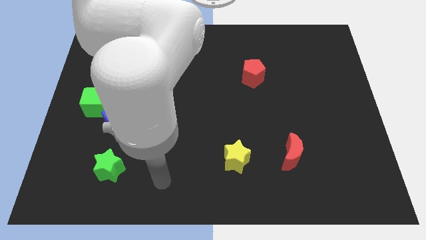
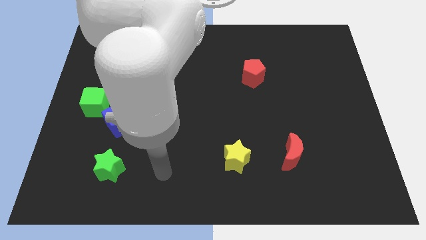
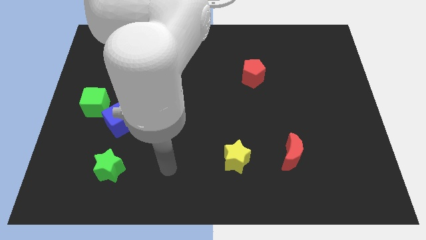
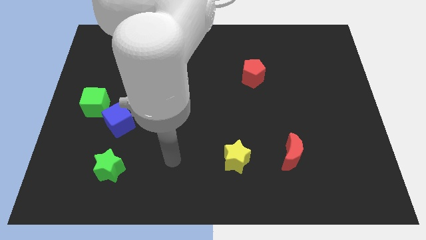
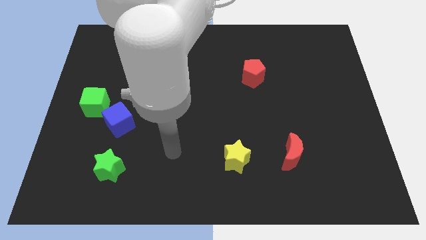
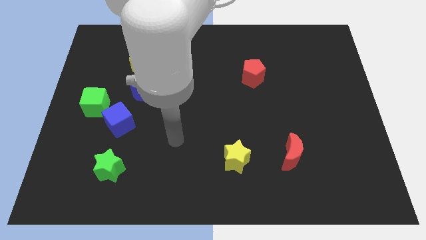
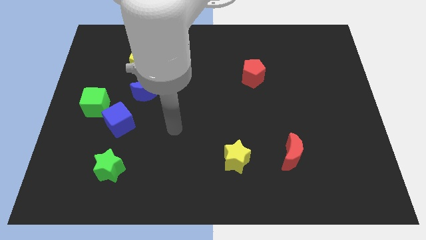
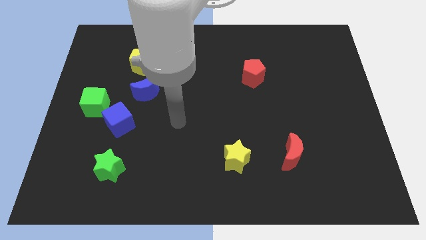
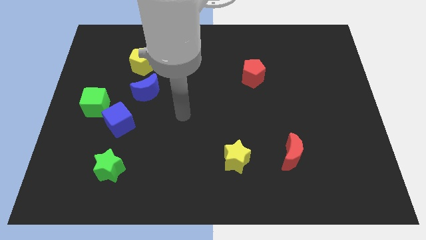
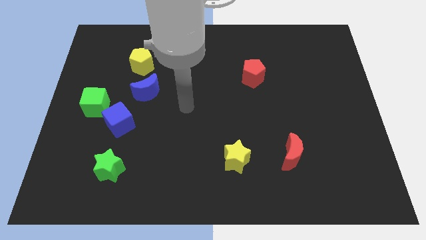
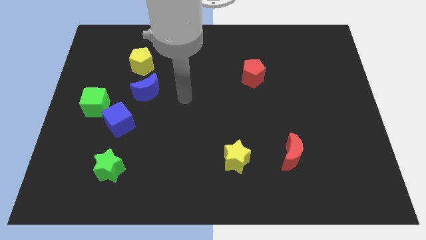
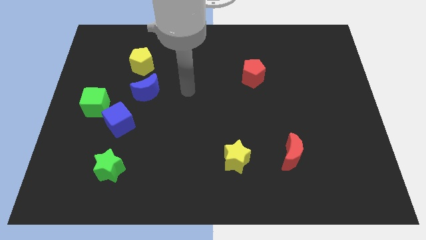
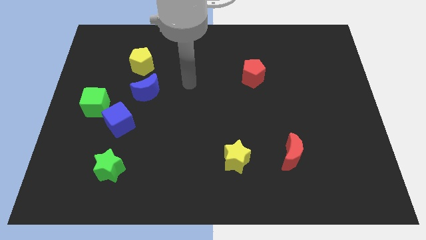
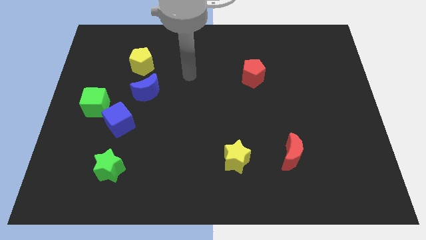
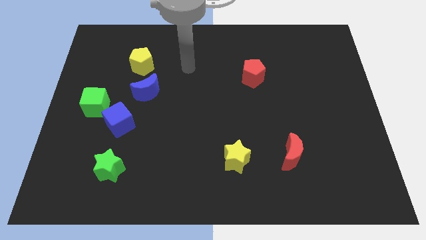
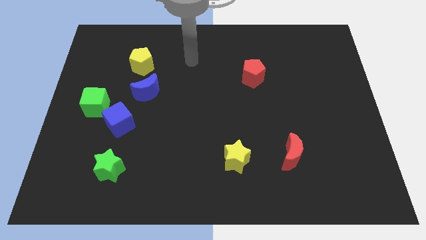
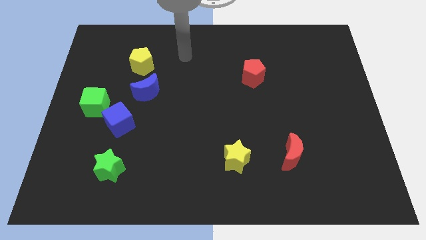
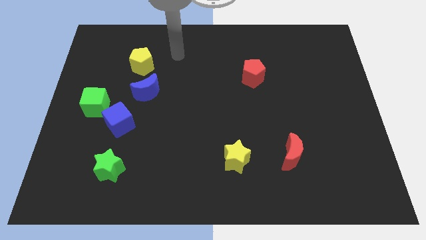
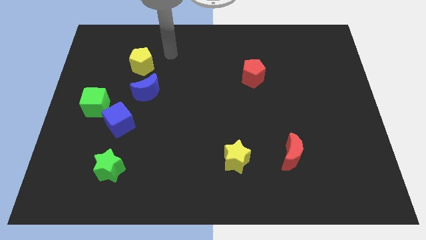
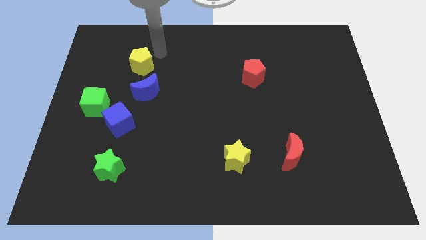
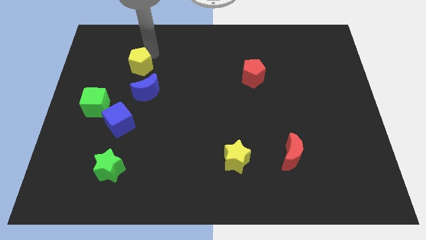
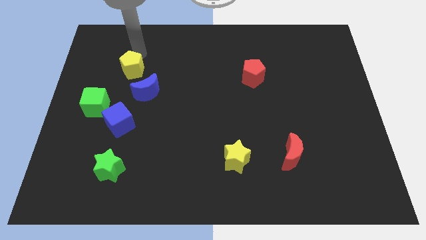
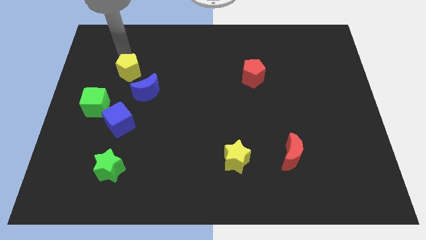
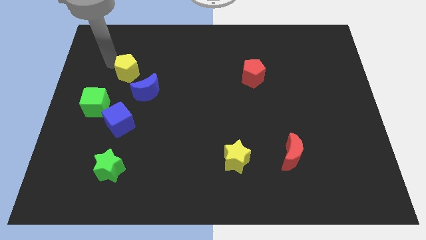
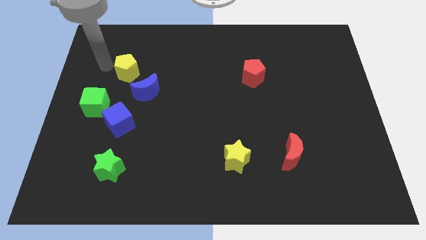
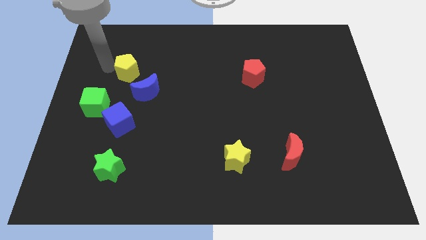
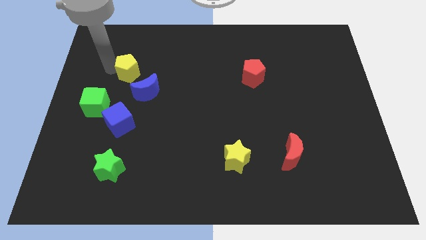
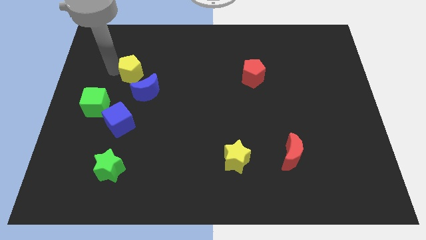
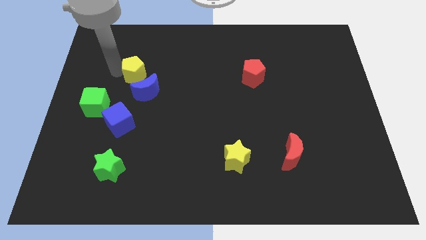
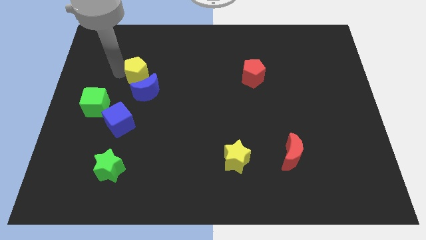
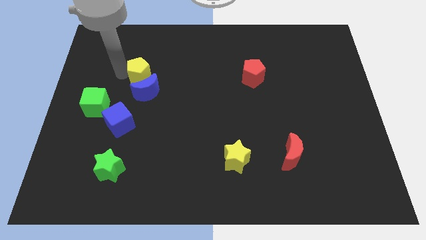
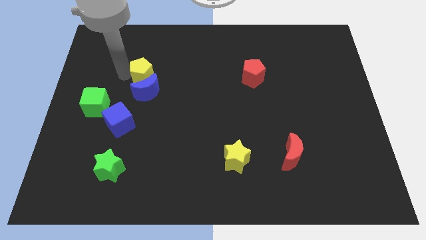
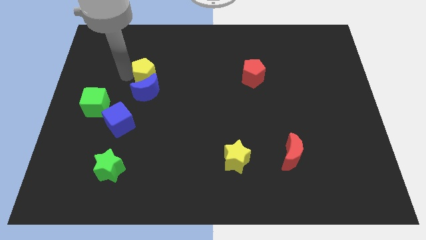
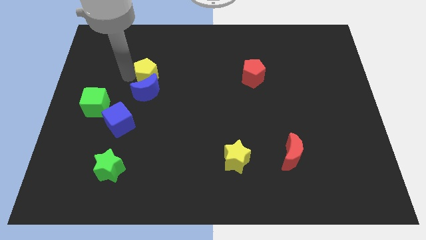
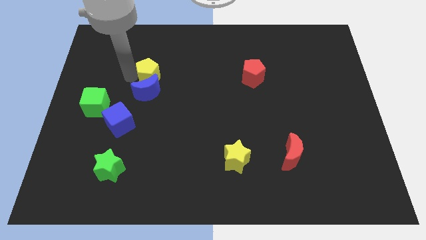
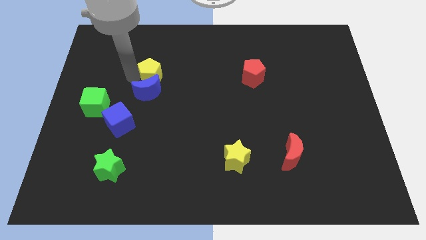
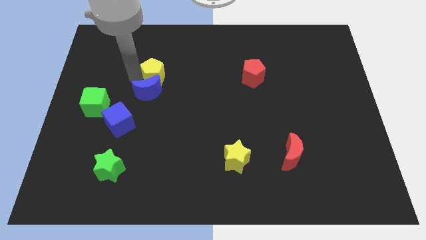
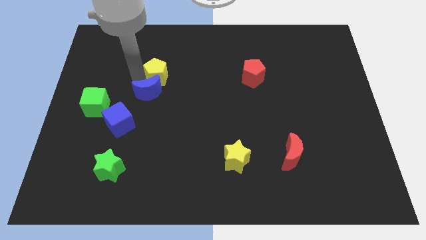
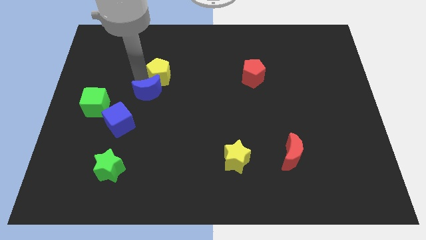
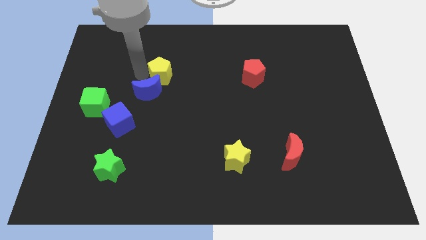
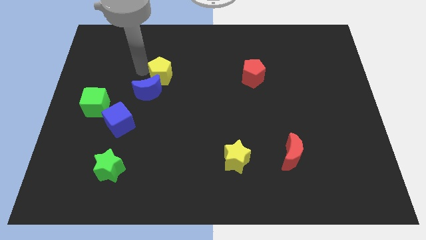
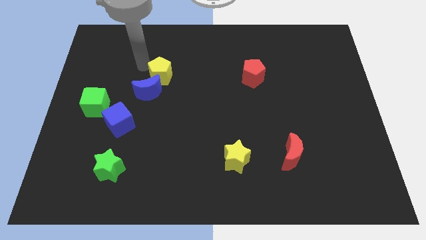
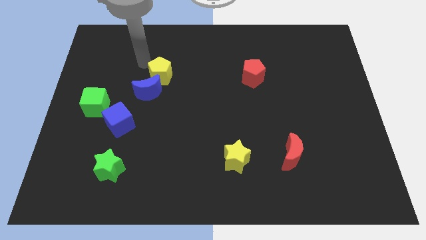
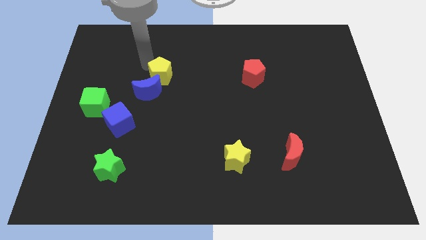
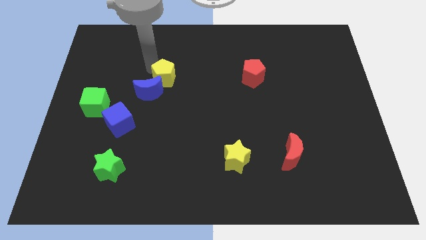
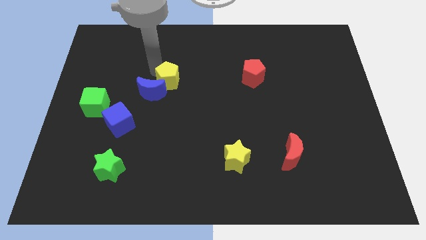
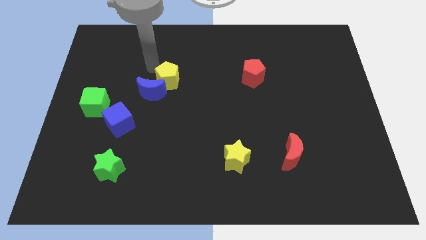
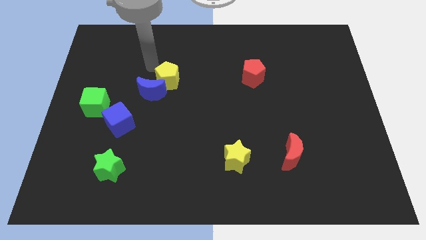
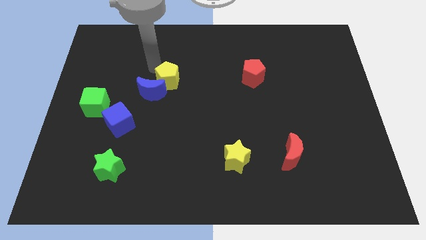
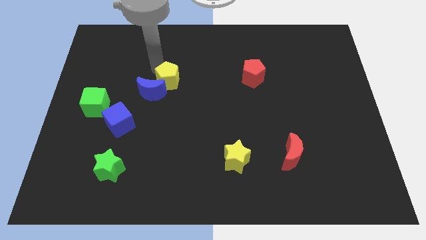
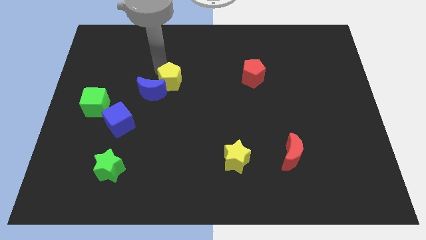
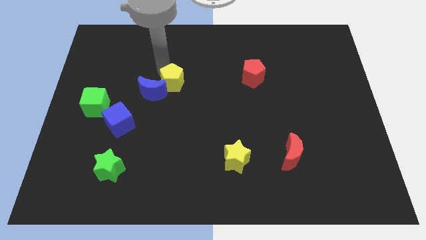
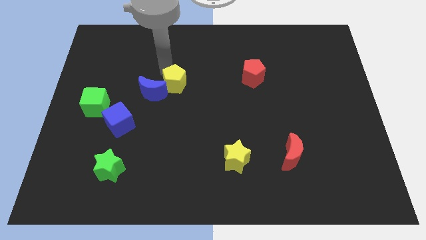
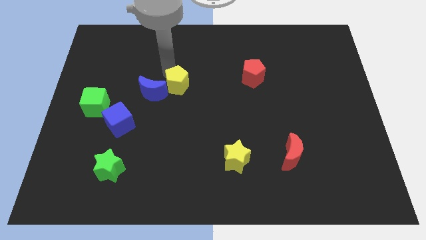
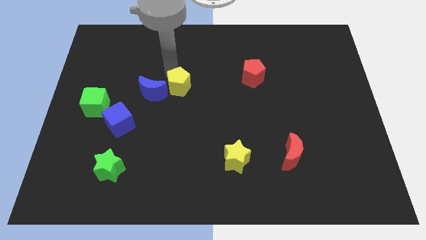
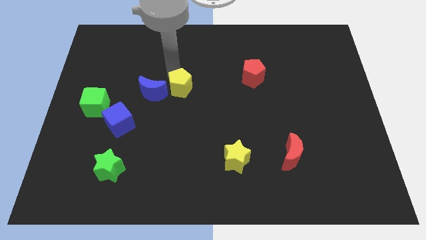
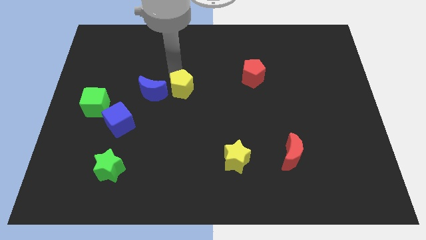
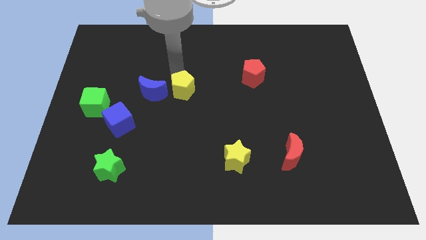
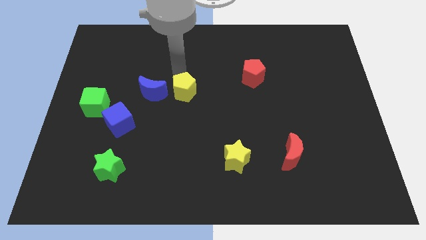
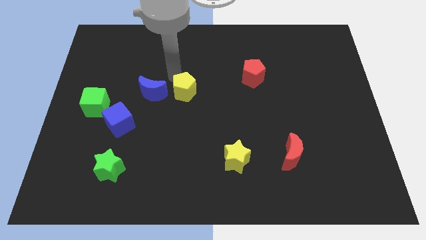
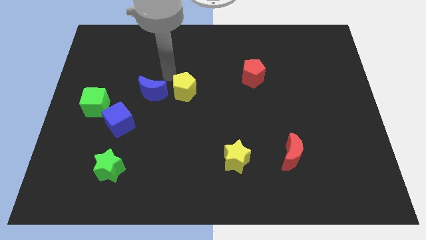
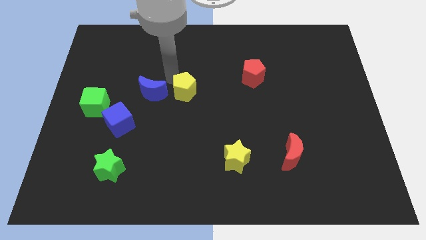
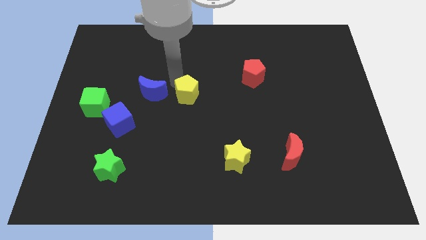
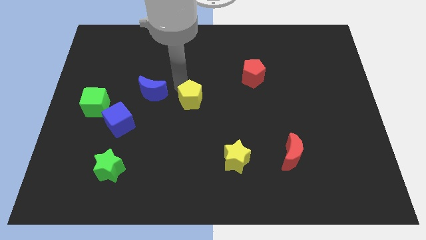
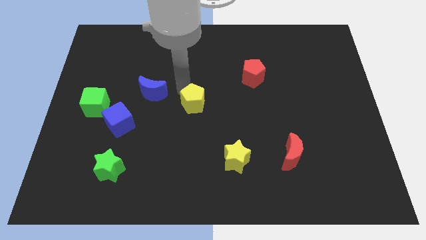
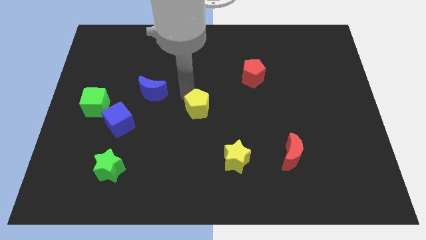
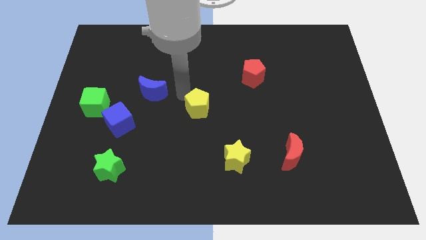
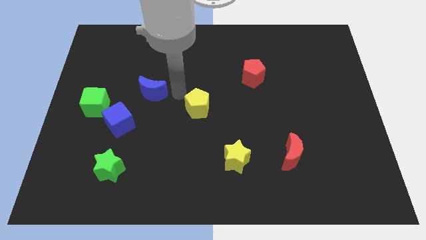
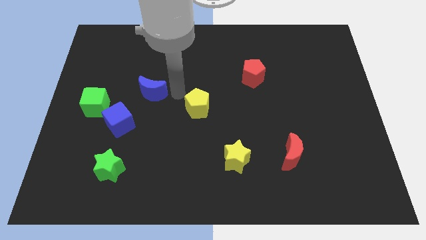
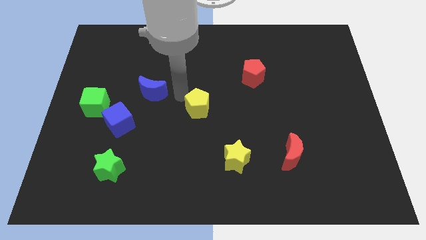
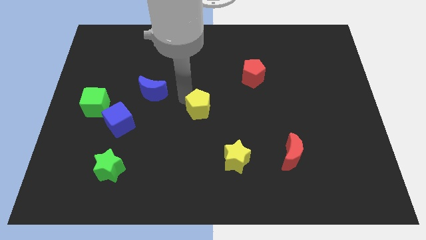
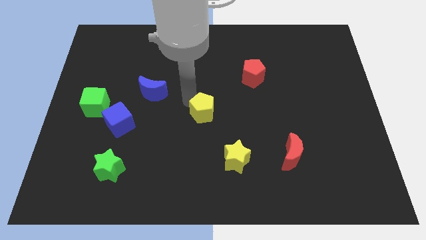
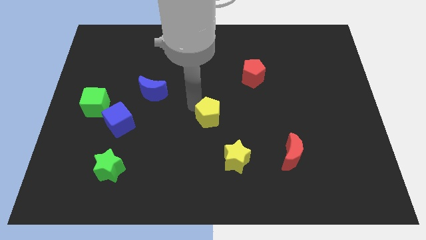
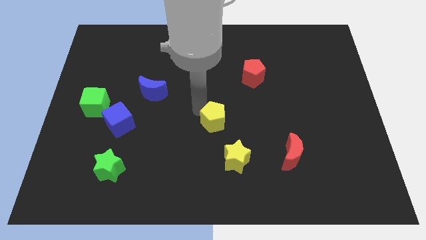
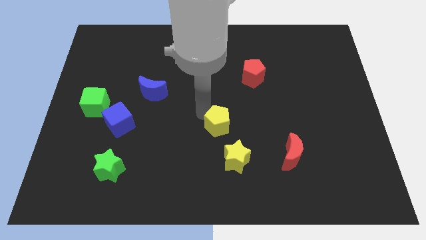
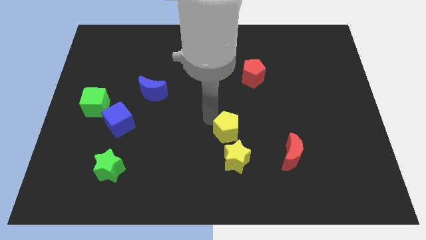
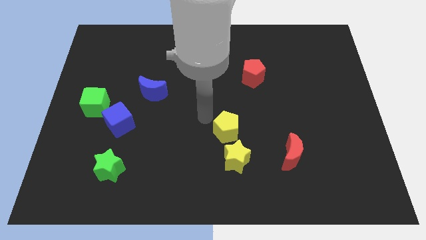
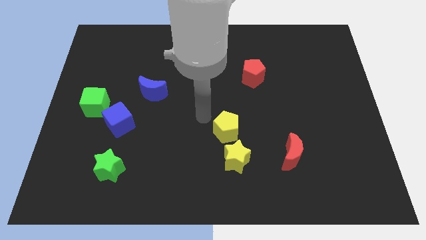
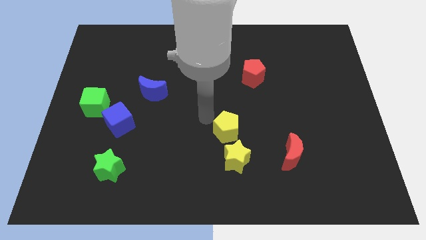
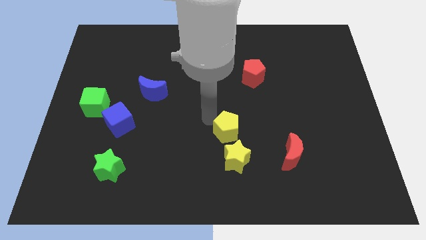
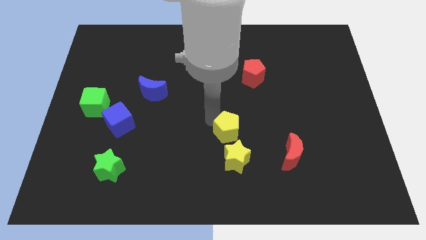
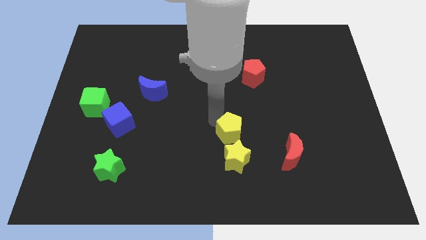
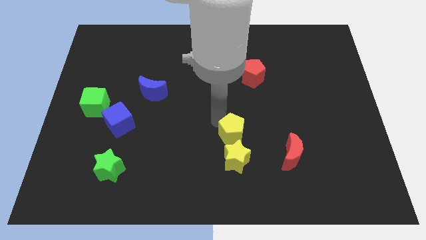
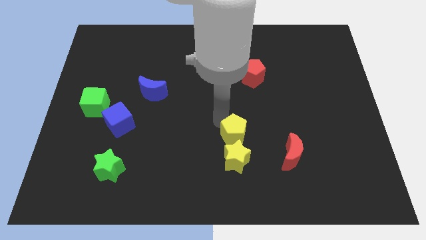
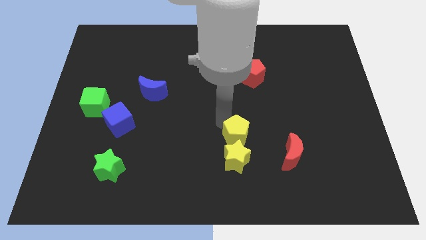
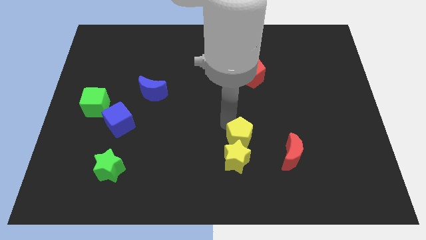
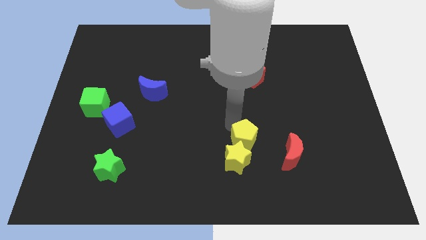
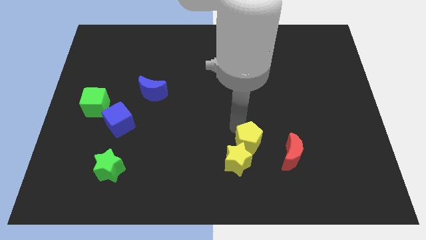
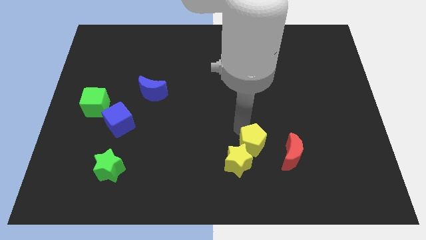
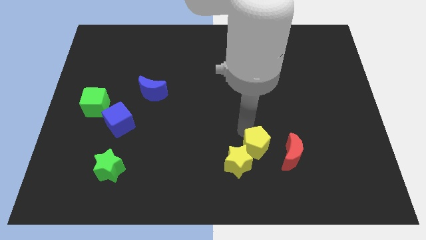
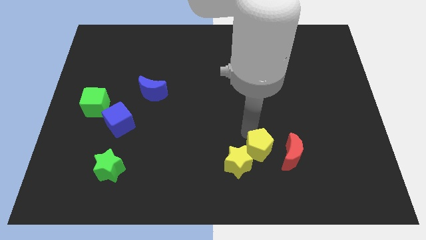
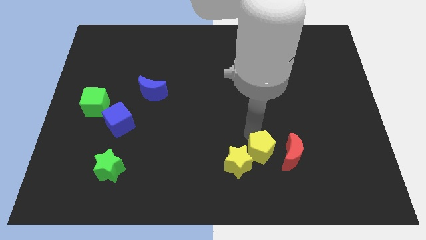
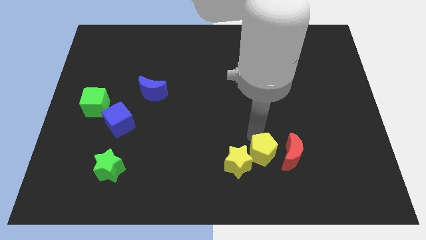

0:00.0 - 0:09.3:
move the yellow pentagon to the bottom left of the red moon
